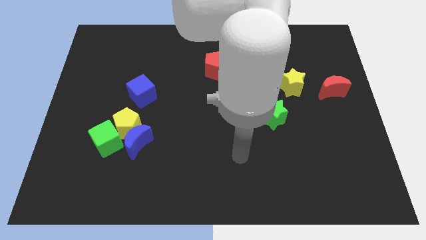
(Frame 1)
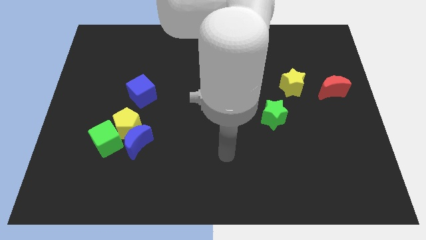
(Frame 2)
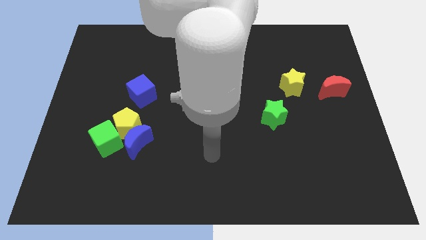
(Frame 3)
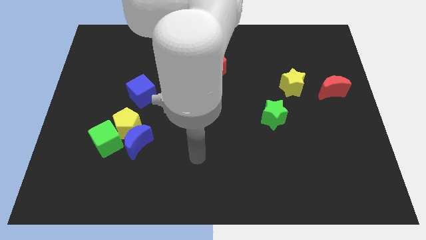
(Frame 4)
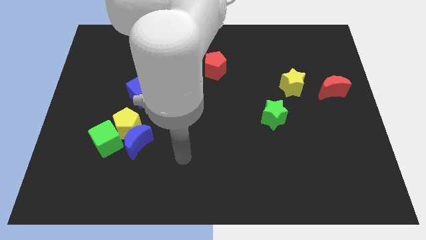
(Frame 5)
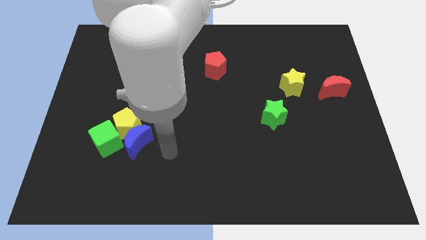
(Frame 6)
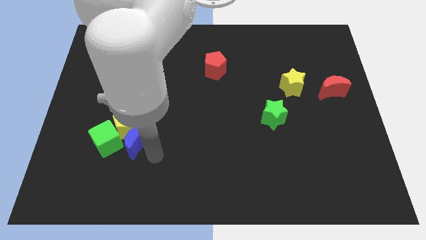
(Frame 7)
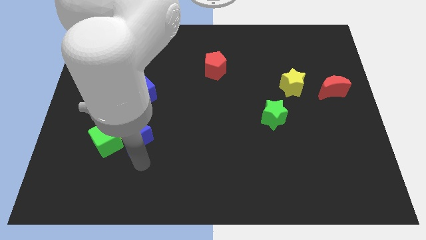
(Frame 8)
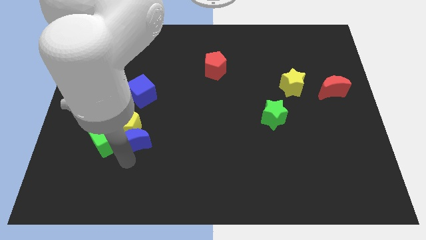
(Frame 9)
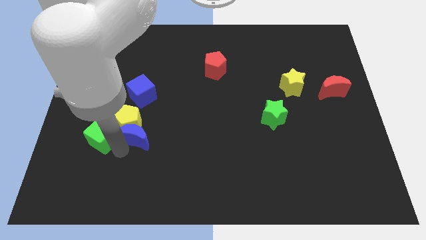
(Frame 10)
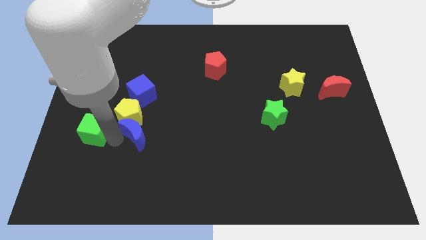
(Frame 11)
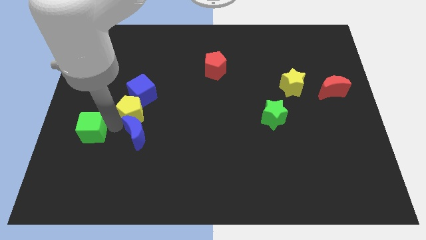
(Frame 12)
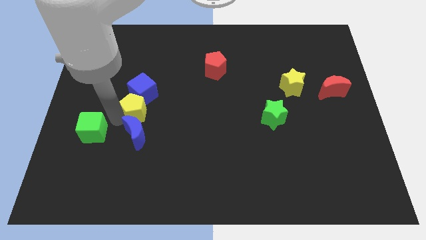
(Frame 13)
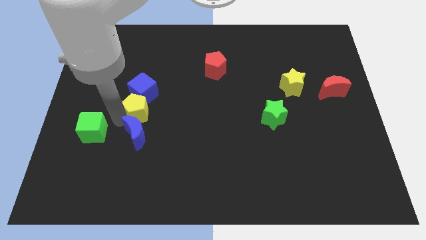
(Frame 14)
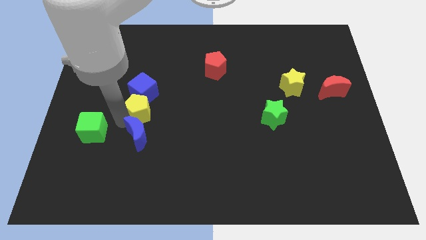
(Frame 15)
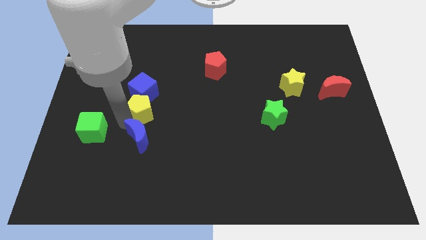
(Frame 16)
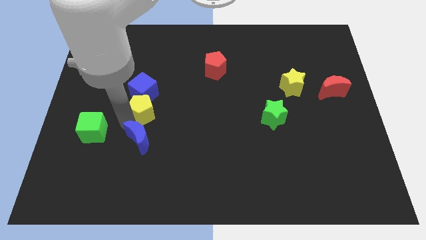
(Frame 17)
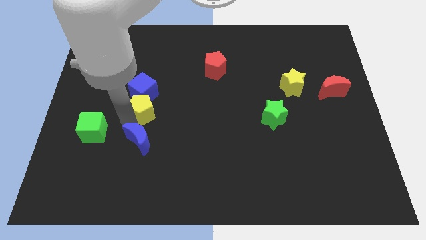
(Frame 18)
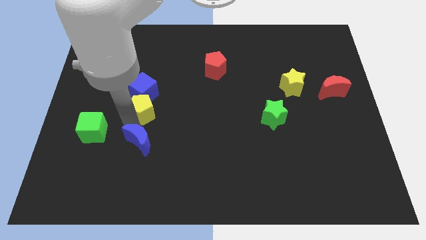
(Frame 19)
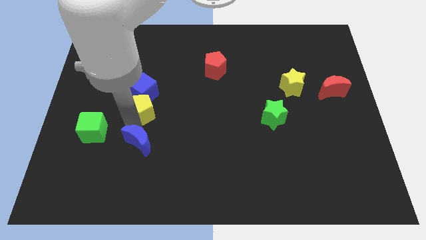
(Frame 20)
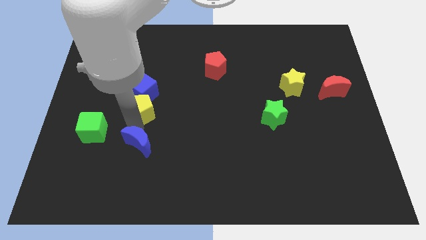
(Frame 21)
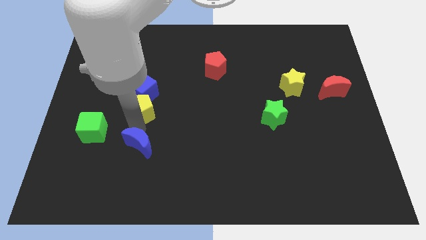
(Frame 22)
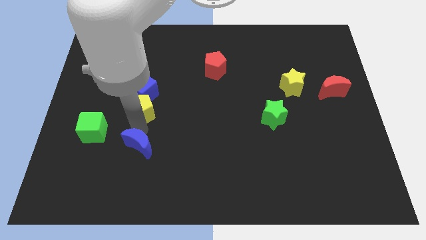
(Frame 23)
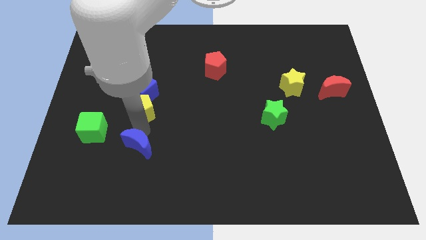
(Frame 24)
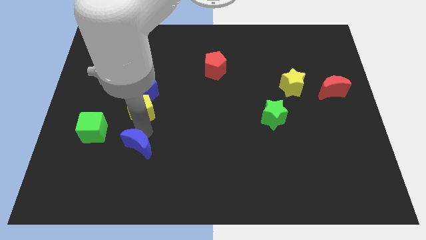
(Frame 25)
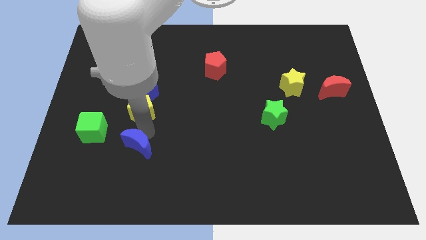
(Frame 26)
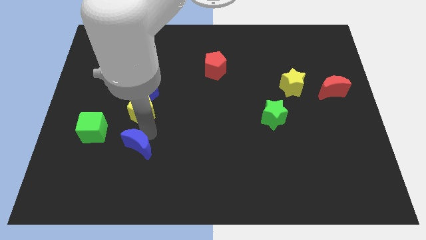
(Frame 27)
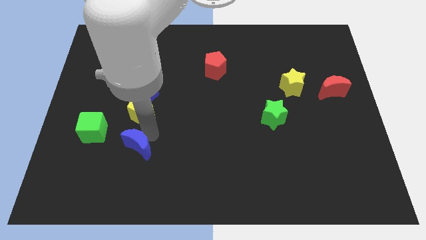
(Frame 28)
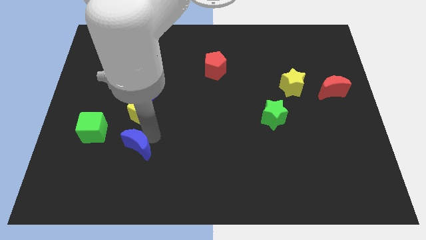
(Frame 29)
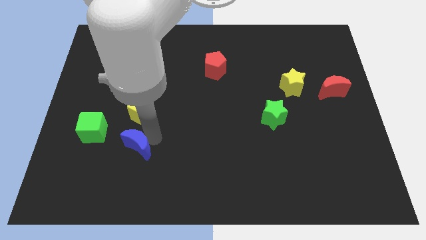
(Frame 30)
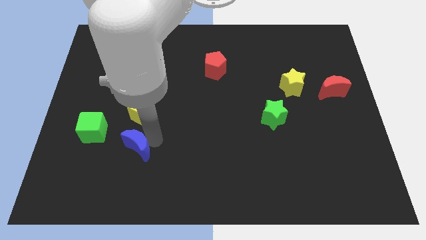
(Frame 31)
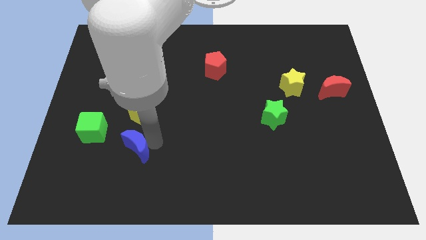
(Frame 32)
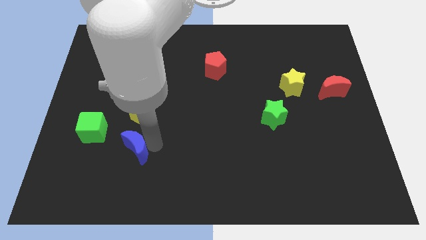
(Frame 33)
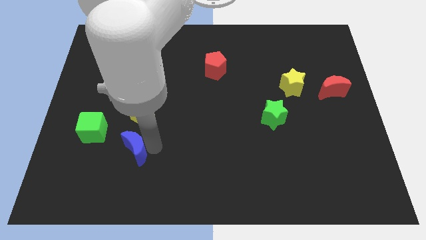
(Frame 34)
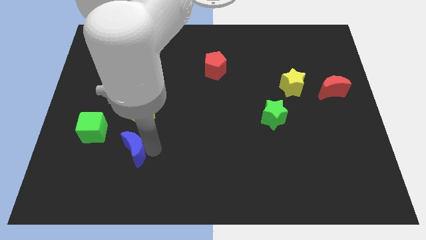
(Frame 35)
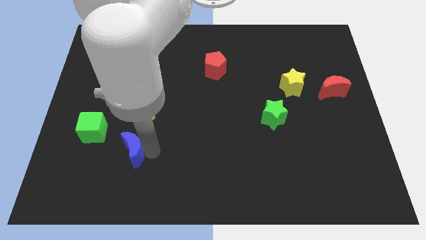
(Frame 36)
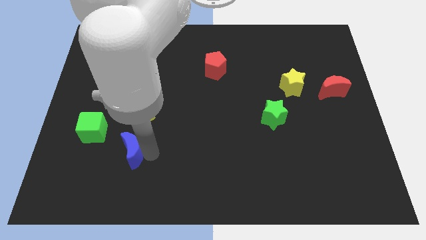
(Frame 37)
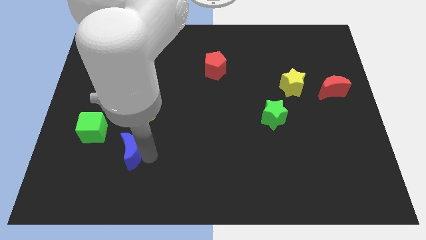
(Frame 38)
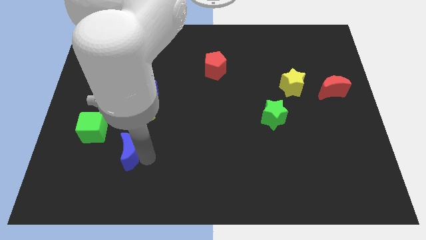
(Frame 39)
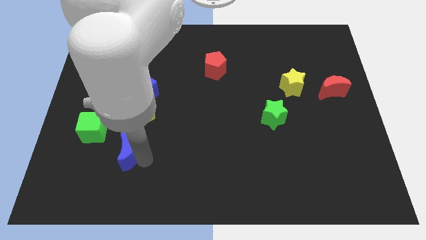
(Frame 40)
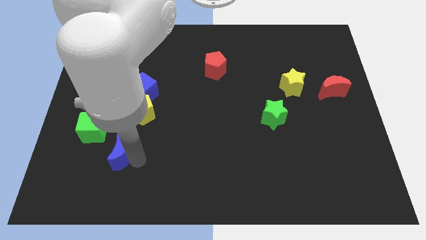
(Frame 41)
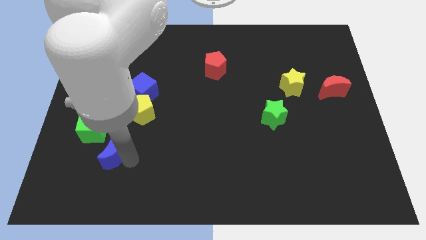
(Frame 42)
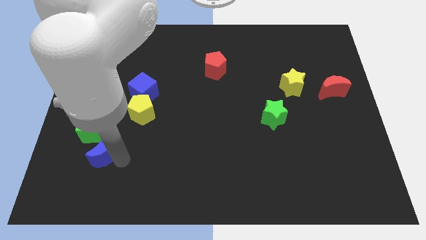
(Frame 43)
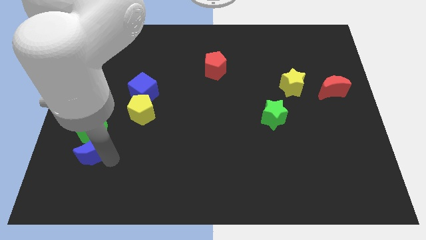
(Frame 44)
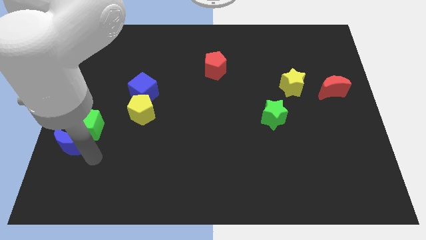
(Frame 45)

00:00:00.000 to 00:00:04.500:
pull the blue moon apart from the yellow pentagon and green cube

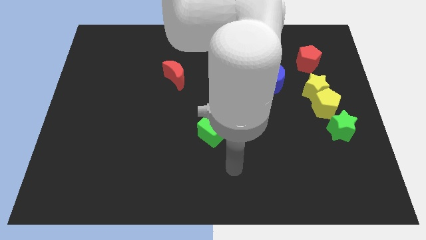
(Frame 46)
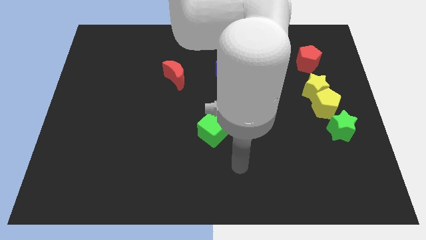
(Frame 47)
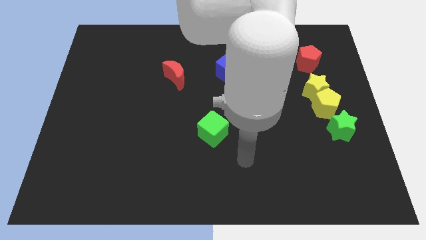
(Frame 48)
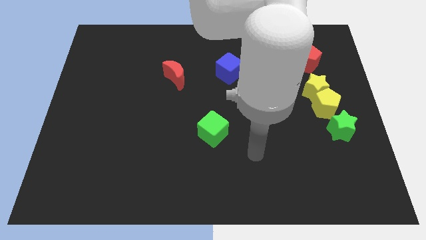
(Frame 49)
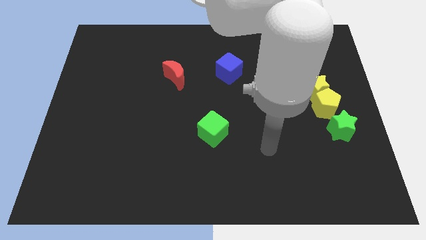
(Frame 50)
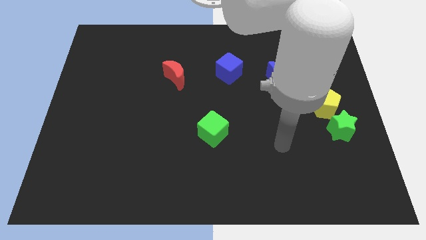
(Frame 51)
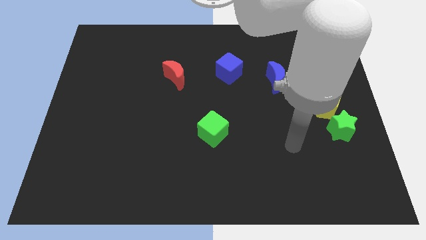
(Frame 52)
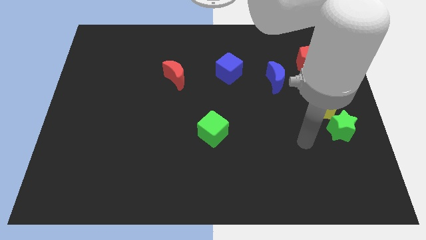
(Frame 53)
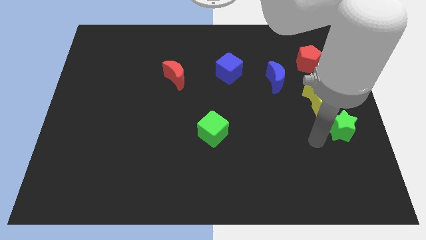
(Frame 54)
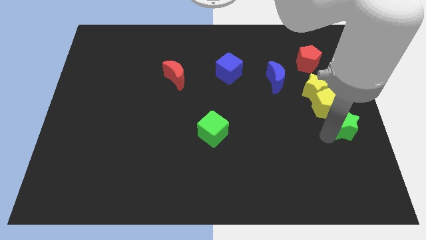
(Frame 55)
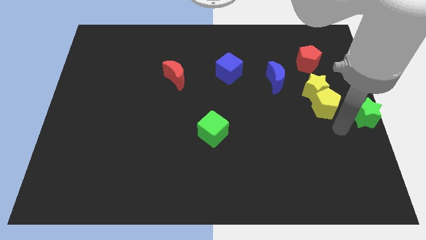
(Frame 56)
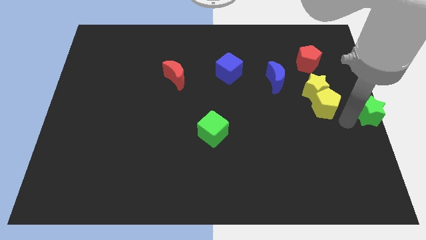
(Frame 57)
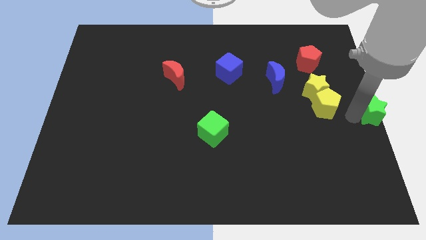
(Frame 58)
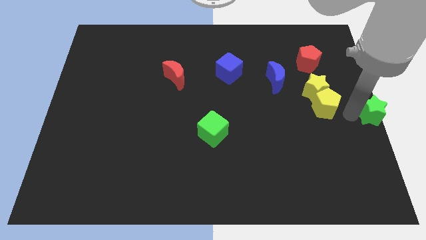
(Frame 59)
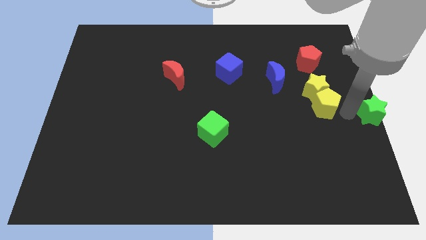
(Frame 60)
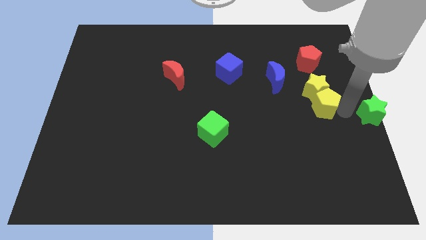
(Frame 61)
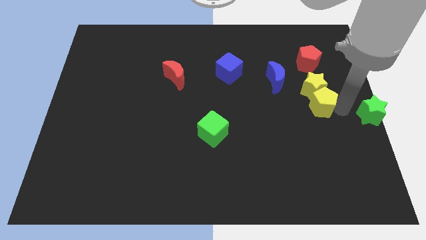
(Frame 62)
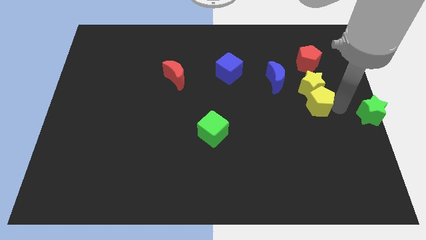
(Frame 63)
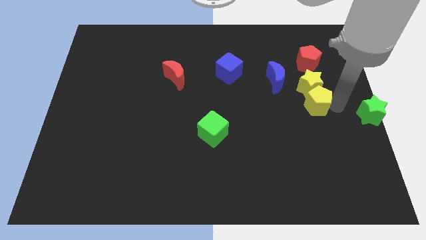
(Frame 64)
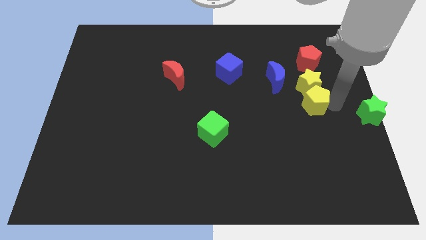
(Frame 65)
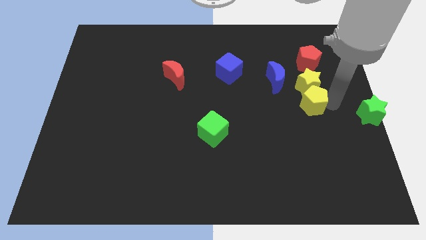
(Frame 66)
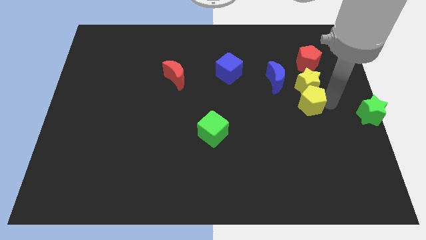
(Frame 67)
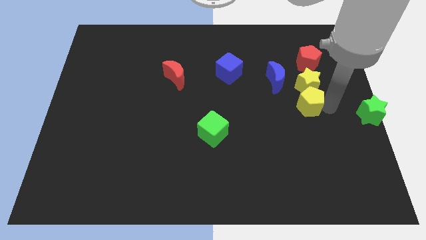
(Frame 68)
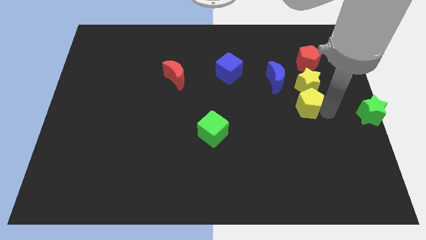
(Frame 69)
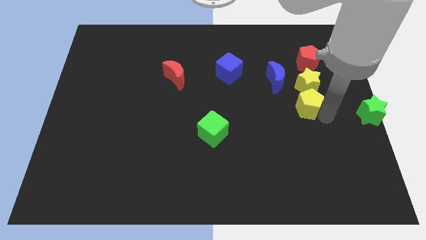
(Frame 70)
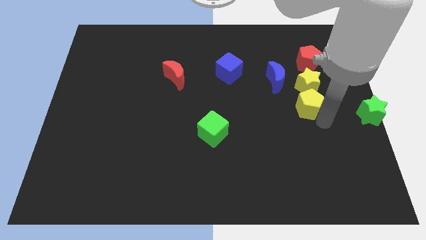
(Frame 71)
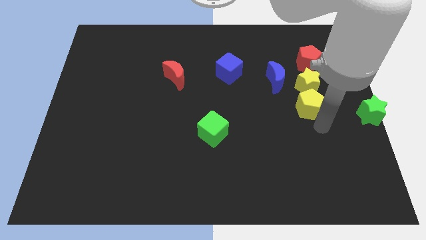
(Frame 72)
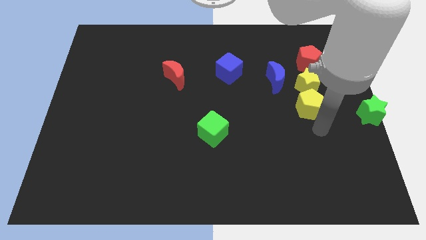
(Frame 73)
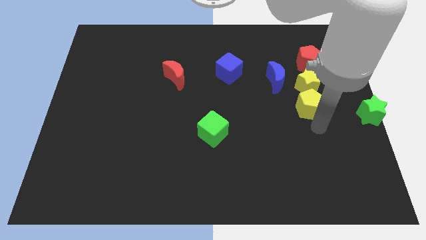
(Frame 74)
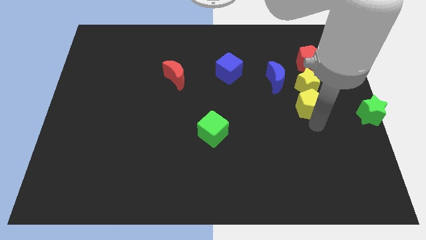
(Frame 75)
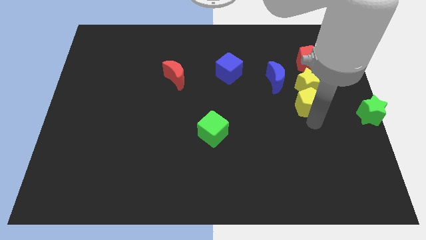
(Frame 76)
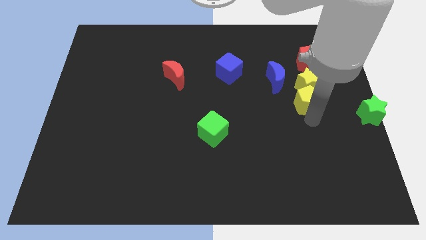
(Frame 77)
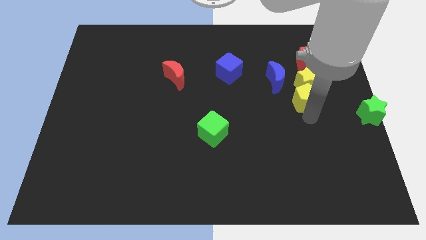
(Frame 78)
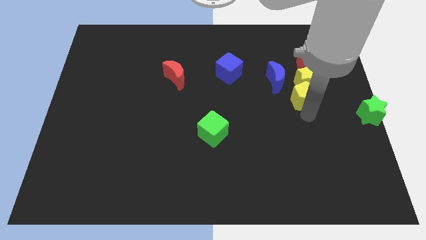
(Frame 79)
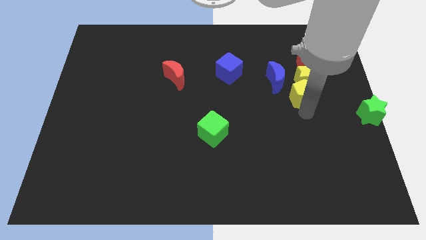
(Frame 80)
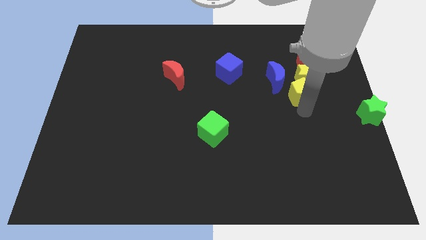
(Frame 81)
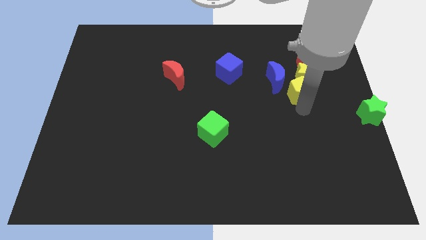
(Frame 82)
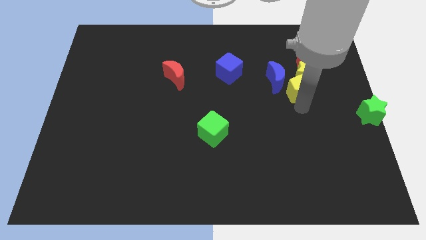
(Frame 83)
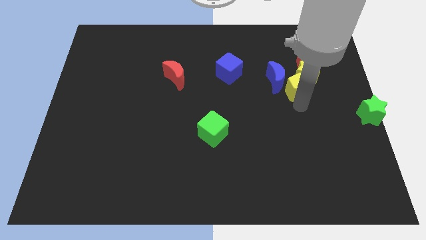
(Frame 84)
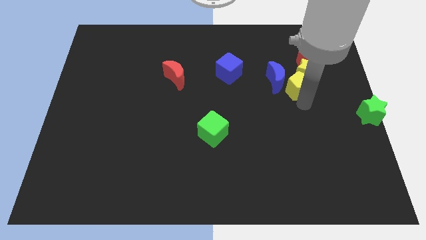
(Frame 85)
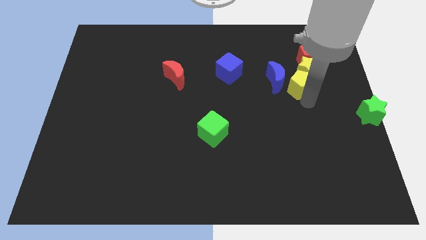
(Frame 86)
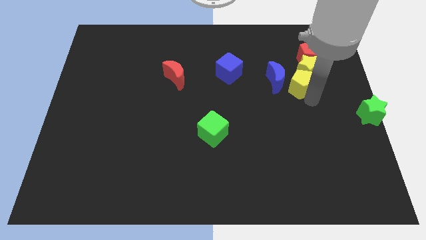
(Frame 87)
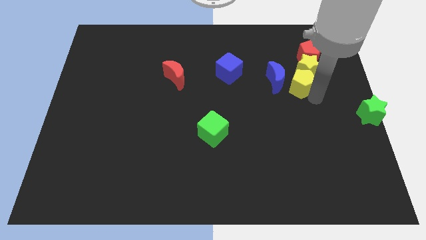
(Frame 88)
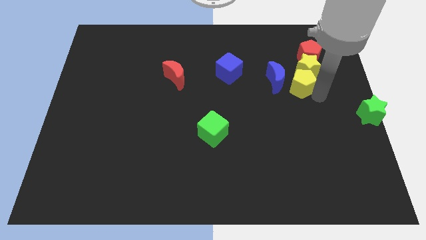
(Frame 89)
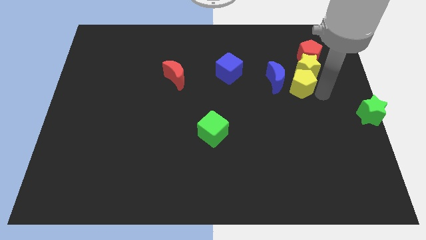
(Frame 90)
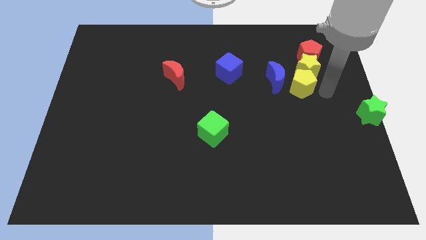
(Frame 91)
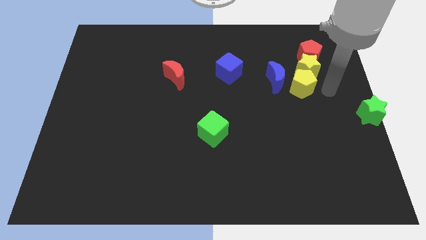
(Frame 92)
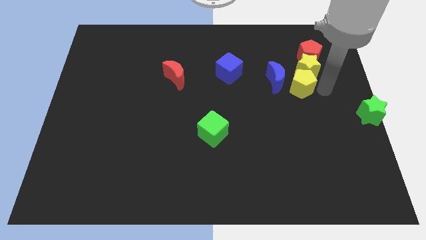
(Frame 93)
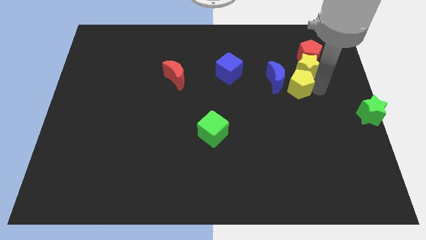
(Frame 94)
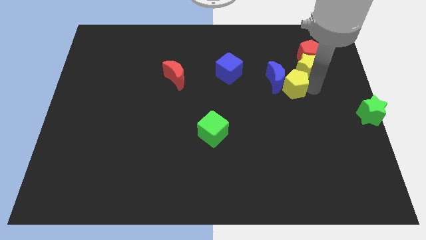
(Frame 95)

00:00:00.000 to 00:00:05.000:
separate the yellow pentagon from the yellow star and green star
